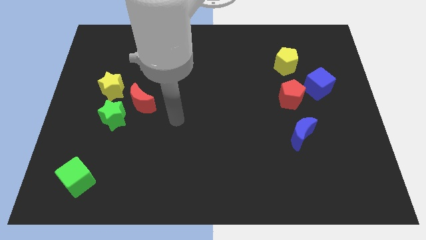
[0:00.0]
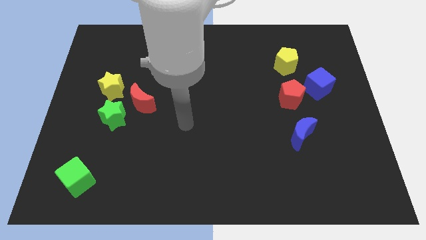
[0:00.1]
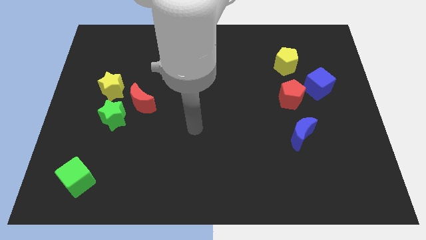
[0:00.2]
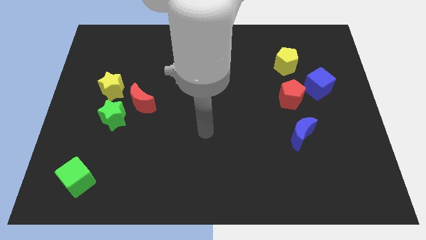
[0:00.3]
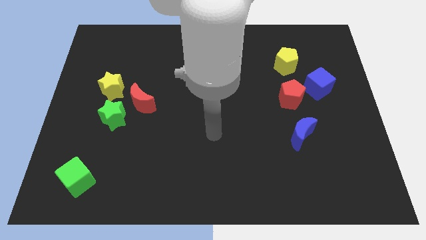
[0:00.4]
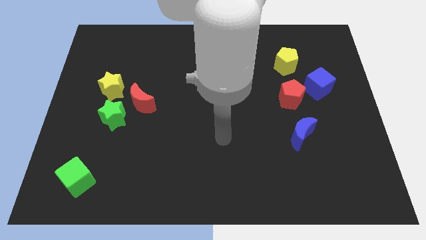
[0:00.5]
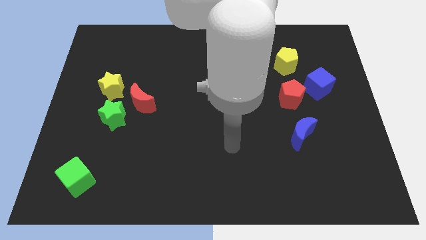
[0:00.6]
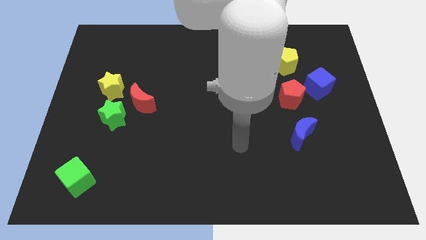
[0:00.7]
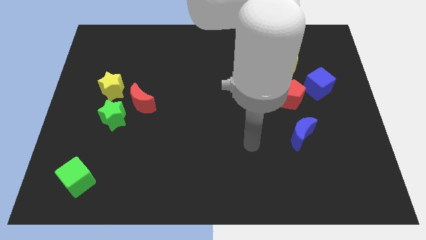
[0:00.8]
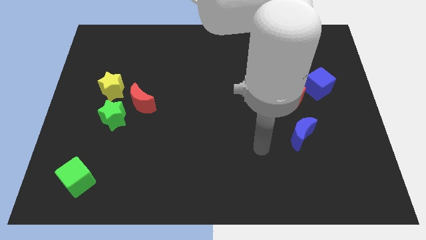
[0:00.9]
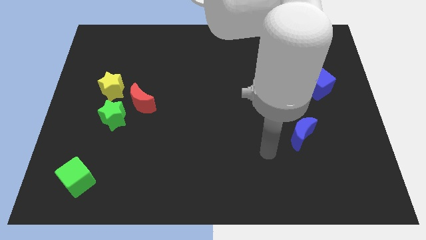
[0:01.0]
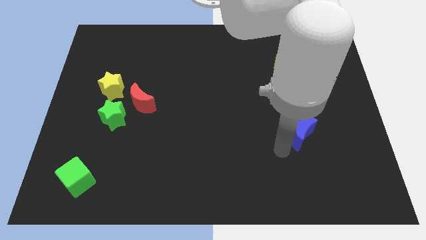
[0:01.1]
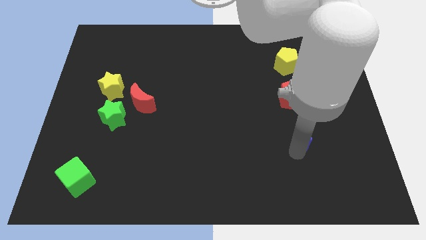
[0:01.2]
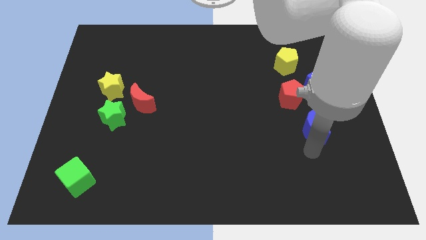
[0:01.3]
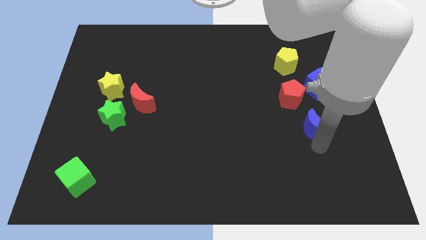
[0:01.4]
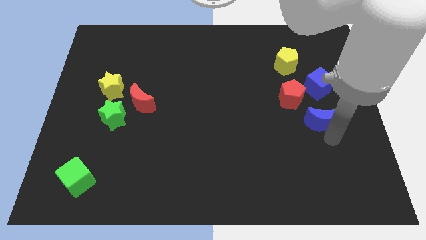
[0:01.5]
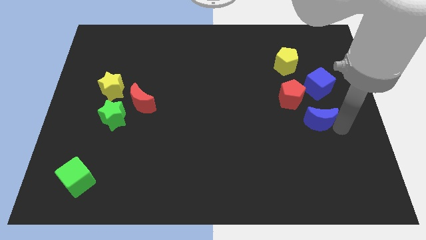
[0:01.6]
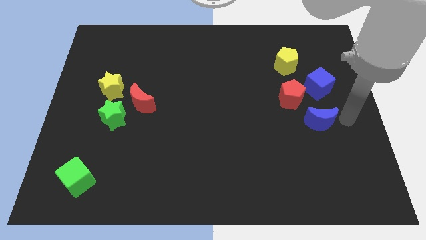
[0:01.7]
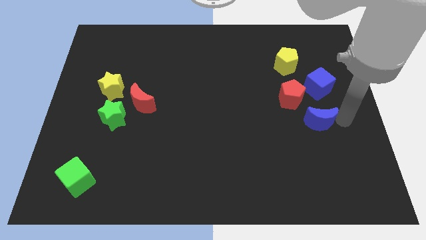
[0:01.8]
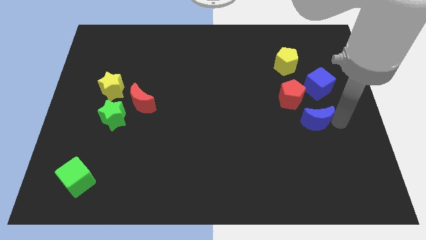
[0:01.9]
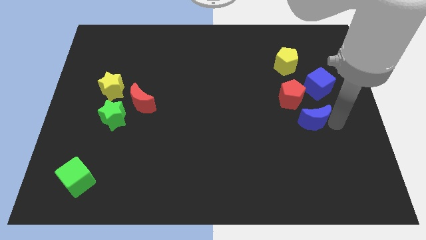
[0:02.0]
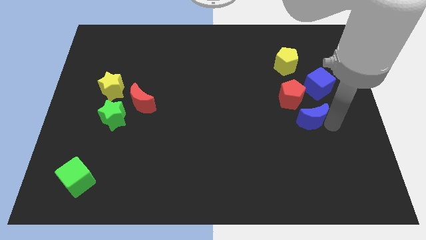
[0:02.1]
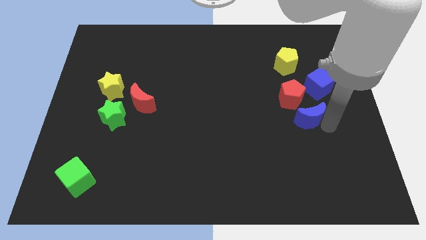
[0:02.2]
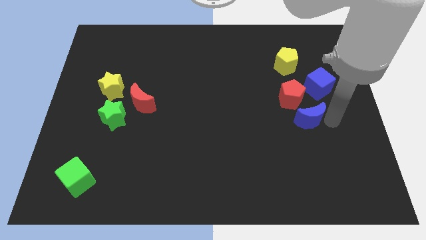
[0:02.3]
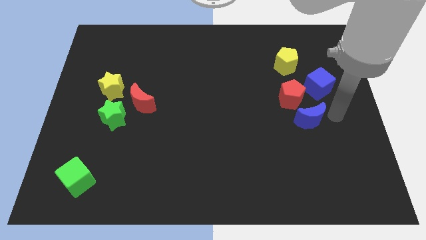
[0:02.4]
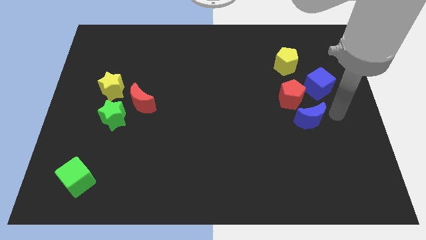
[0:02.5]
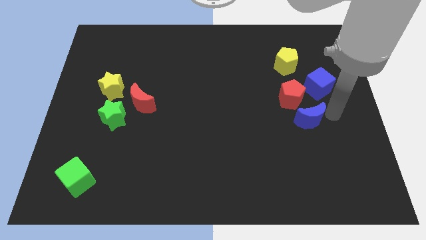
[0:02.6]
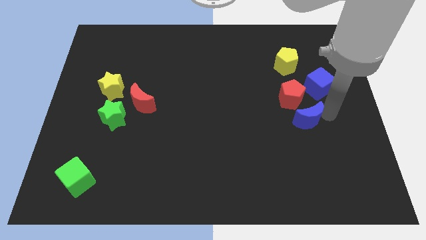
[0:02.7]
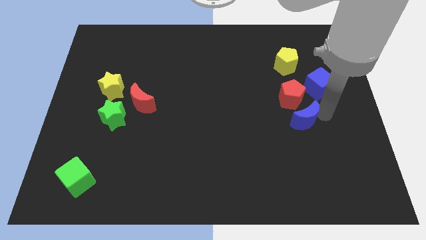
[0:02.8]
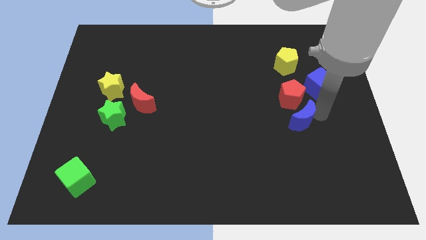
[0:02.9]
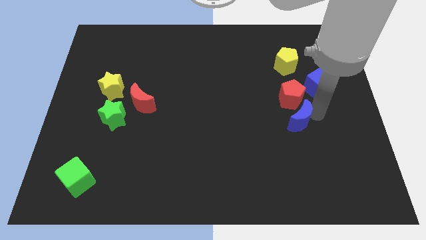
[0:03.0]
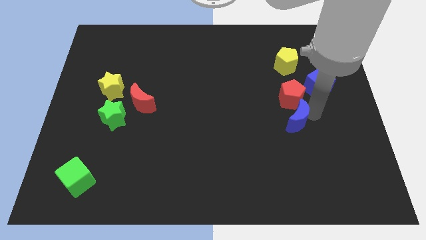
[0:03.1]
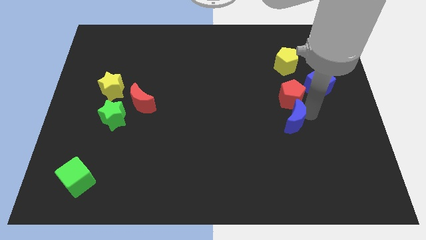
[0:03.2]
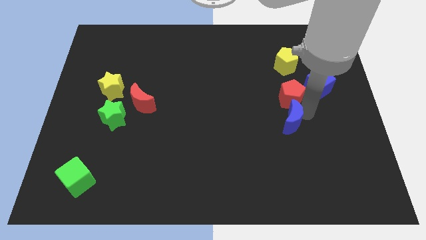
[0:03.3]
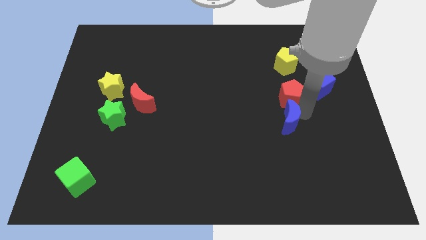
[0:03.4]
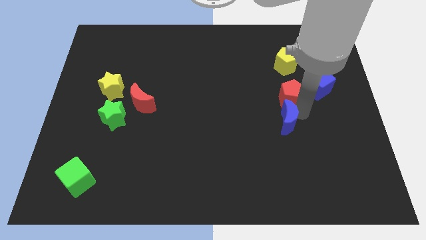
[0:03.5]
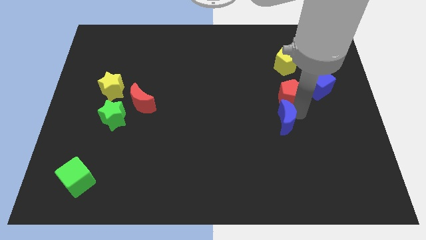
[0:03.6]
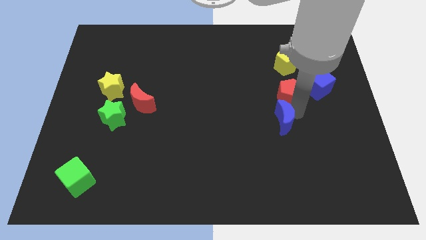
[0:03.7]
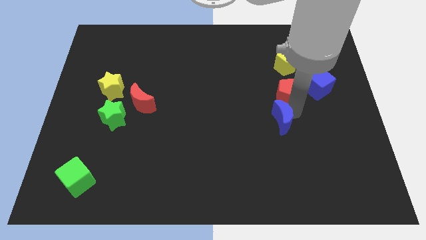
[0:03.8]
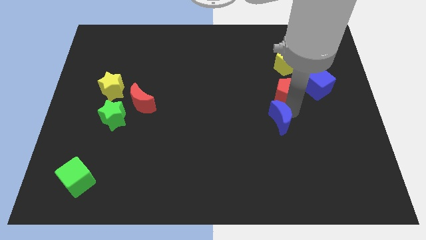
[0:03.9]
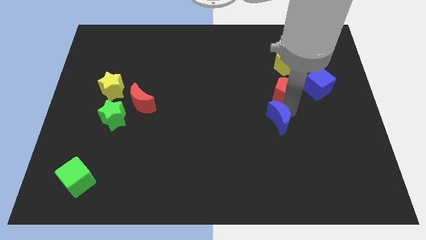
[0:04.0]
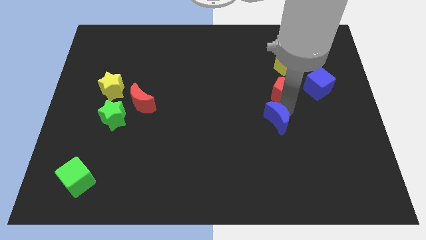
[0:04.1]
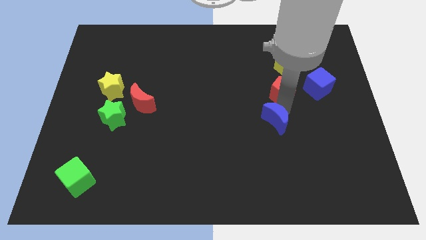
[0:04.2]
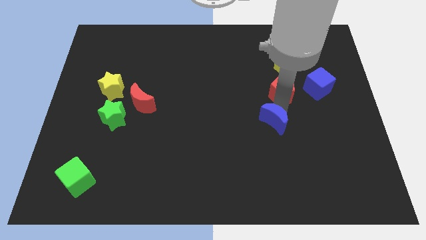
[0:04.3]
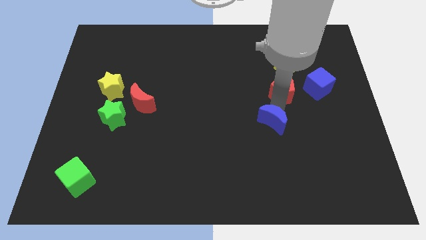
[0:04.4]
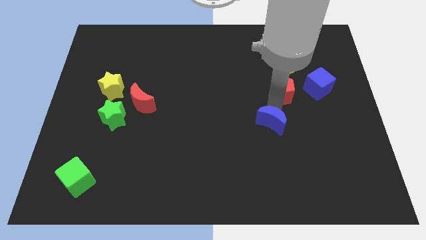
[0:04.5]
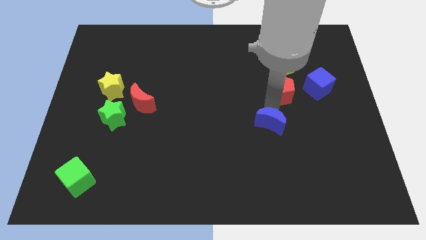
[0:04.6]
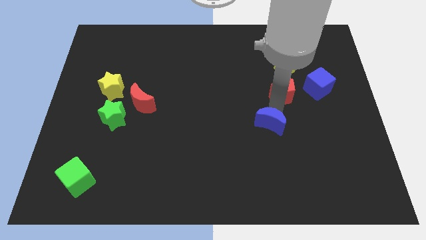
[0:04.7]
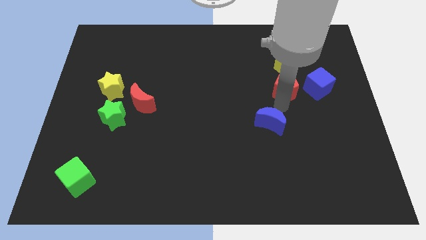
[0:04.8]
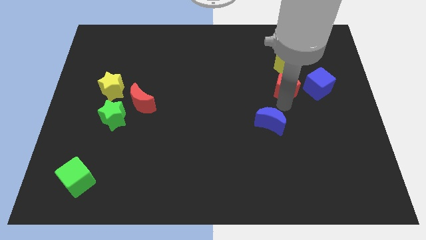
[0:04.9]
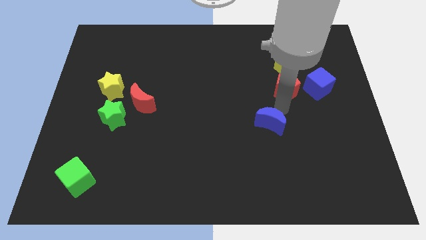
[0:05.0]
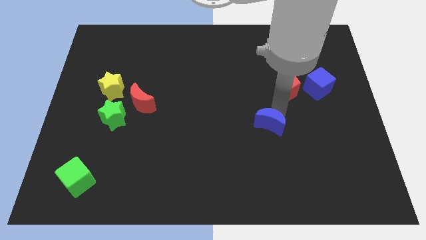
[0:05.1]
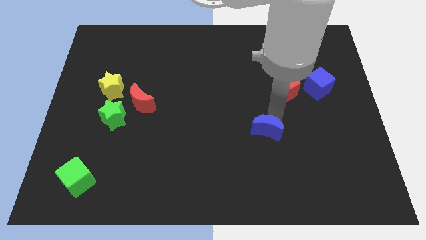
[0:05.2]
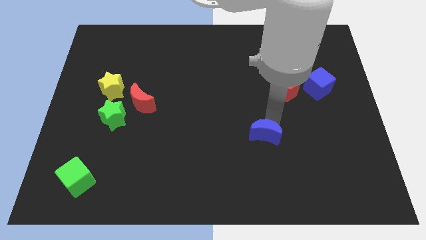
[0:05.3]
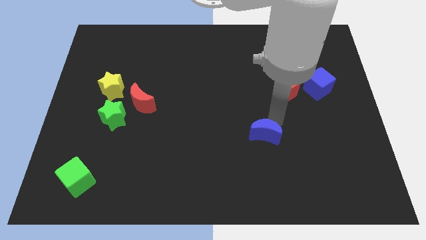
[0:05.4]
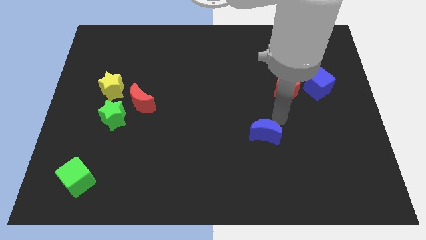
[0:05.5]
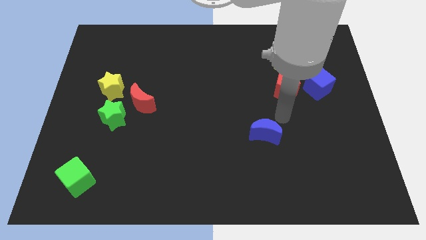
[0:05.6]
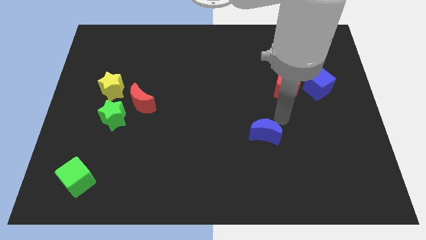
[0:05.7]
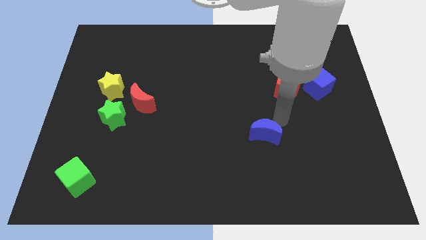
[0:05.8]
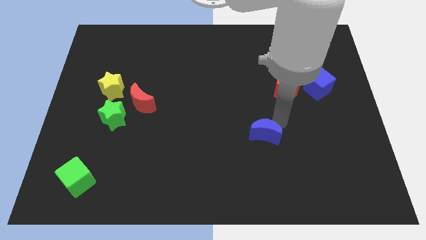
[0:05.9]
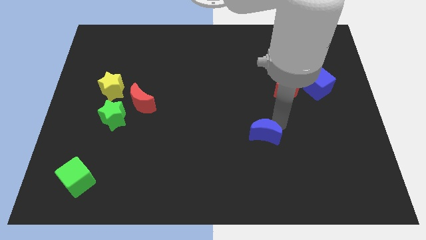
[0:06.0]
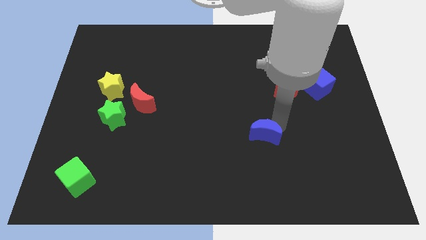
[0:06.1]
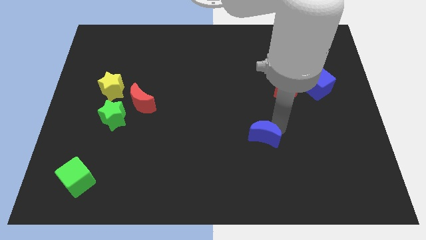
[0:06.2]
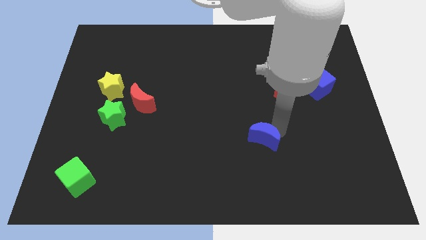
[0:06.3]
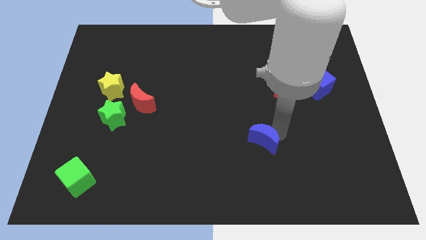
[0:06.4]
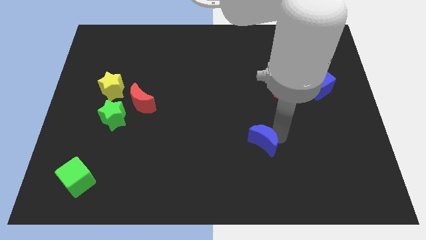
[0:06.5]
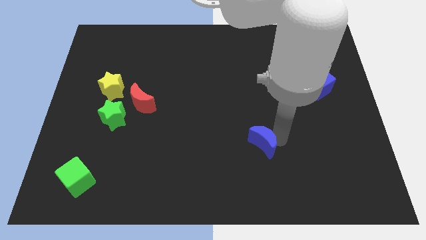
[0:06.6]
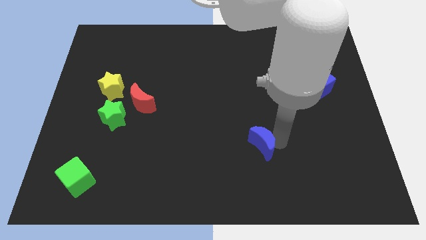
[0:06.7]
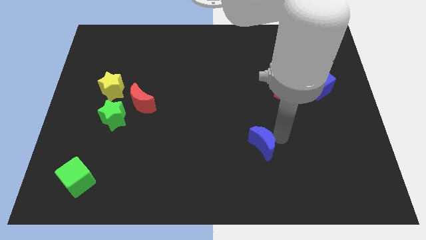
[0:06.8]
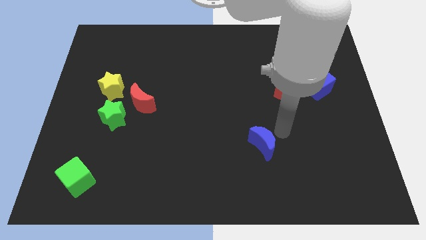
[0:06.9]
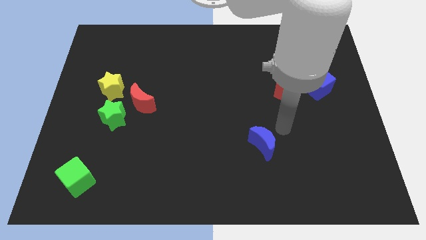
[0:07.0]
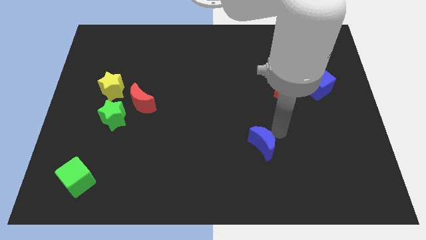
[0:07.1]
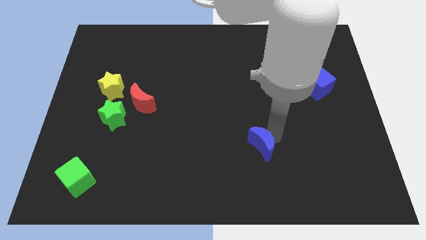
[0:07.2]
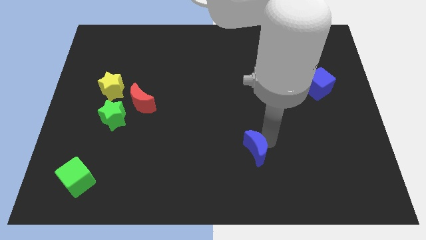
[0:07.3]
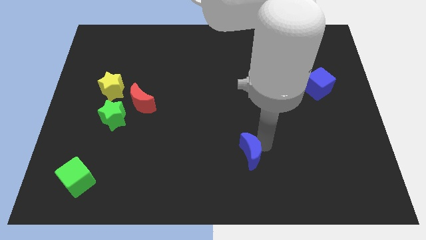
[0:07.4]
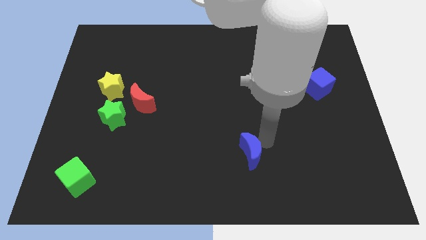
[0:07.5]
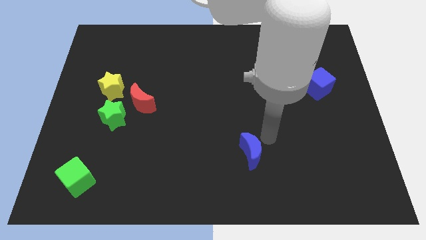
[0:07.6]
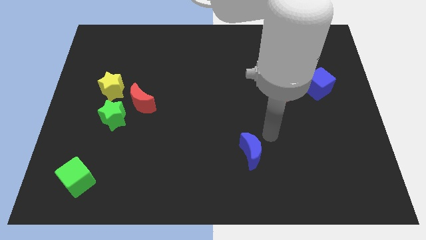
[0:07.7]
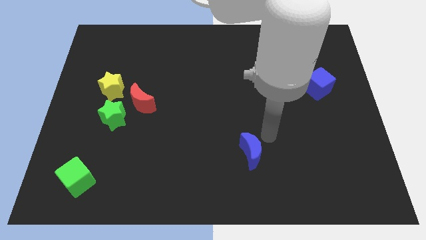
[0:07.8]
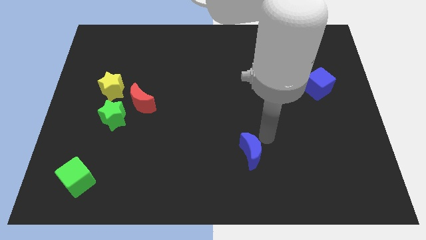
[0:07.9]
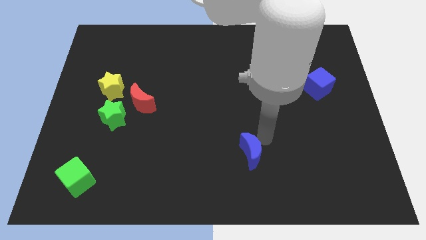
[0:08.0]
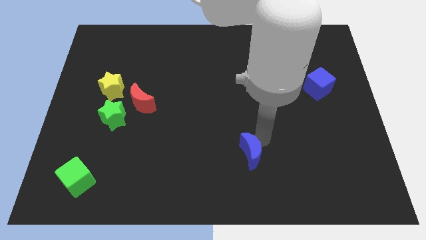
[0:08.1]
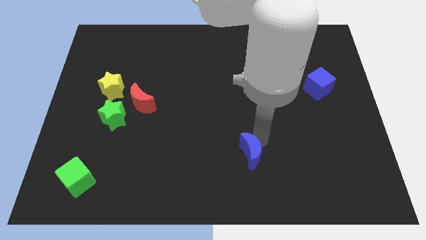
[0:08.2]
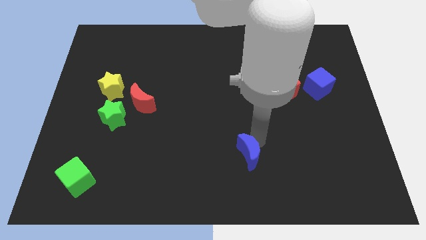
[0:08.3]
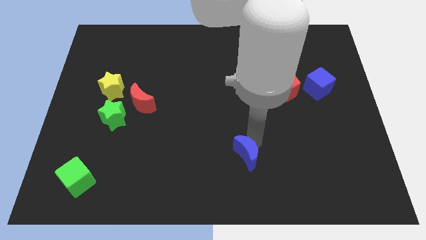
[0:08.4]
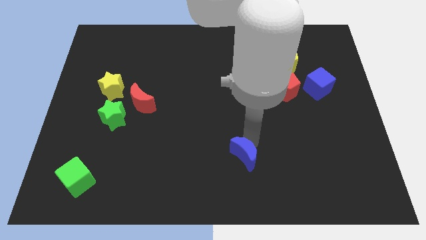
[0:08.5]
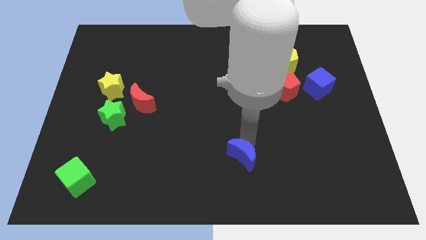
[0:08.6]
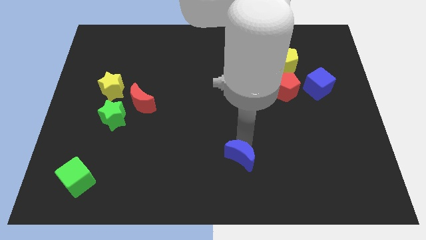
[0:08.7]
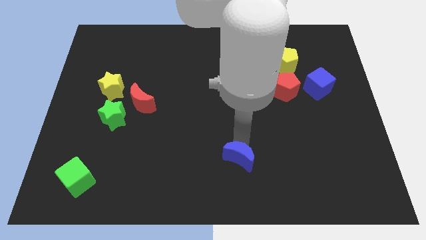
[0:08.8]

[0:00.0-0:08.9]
slide the blue moon to the bottom
